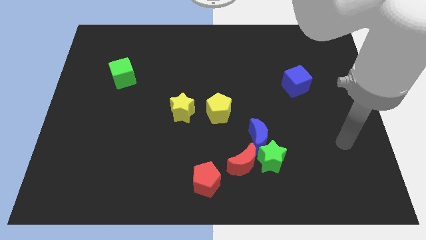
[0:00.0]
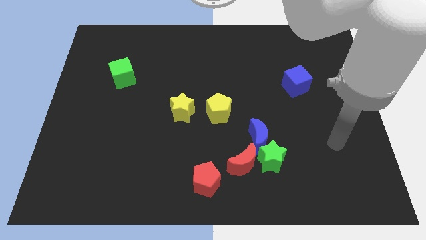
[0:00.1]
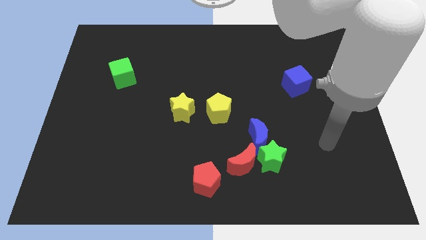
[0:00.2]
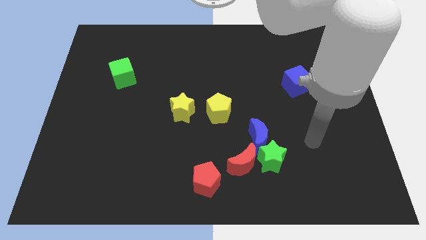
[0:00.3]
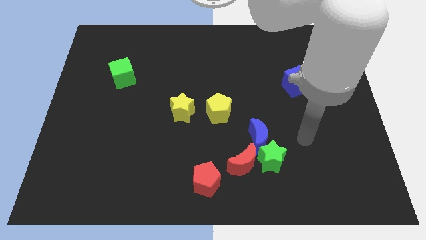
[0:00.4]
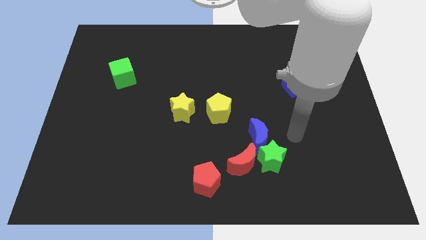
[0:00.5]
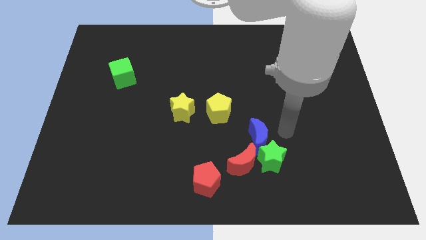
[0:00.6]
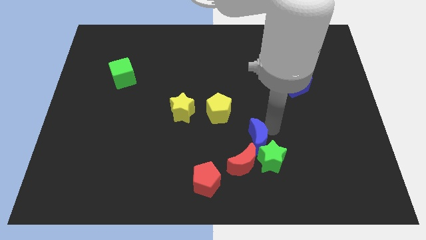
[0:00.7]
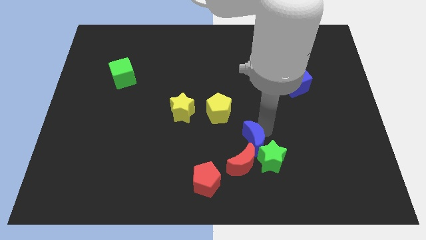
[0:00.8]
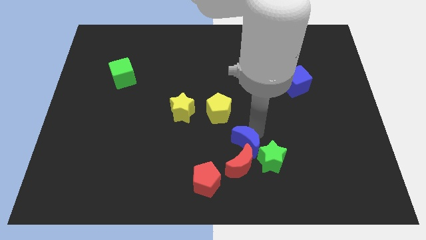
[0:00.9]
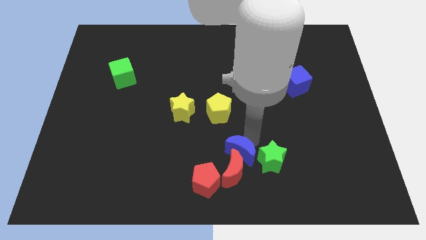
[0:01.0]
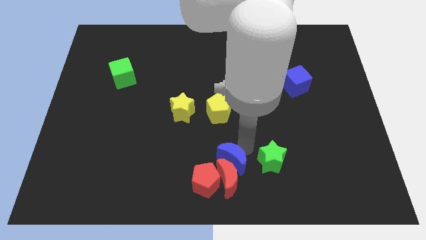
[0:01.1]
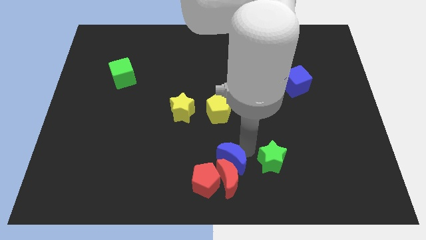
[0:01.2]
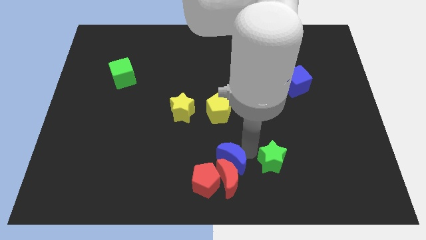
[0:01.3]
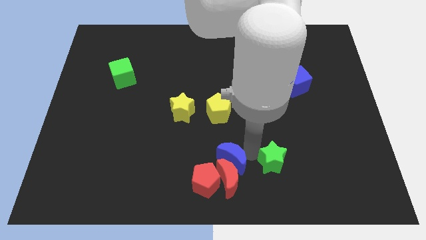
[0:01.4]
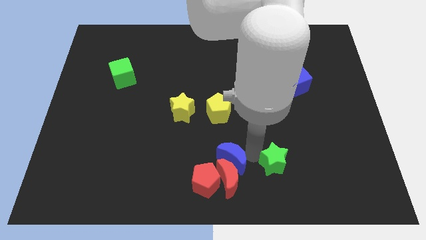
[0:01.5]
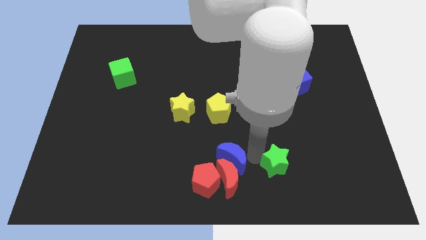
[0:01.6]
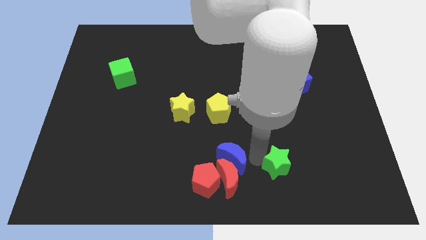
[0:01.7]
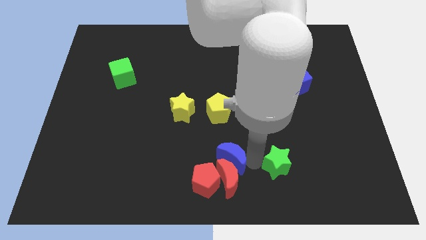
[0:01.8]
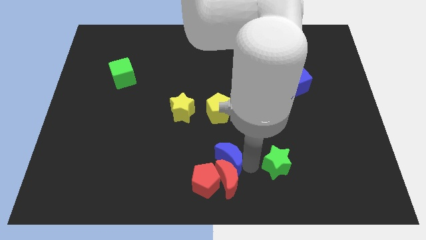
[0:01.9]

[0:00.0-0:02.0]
move the green star away from the blue moon and red moon

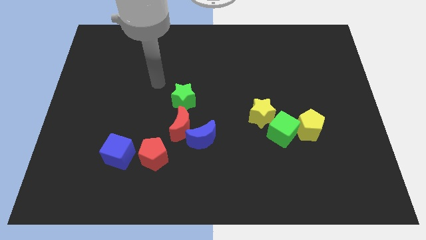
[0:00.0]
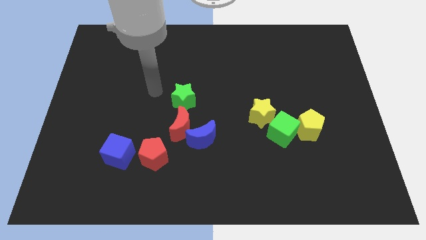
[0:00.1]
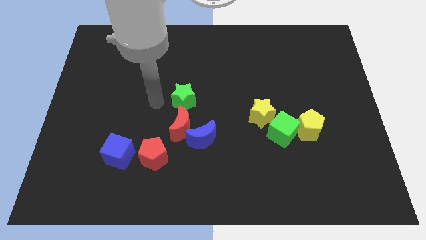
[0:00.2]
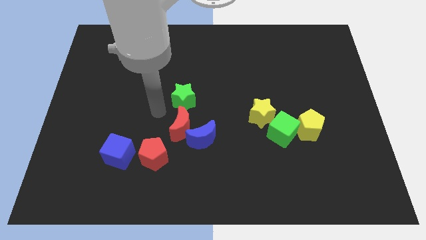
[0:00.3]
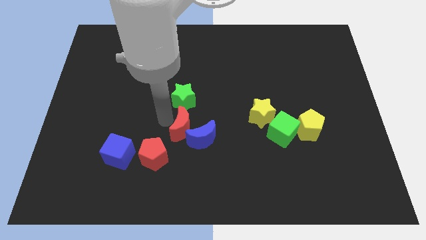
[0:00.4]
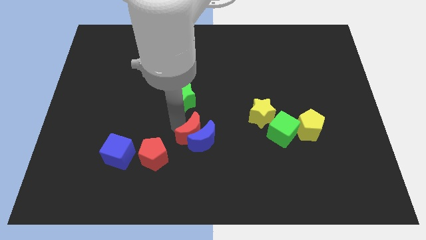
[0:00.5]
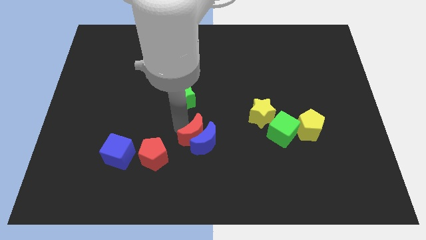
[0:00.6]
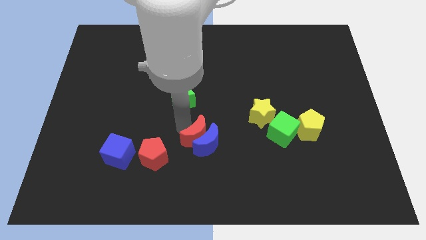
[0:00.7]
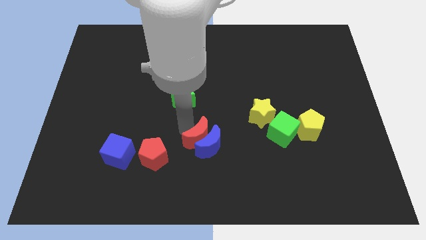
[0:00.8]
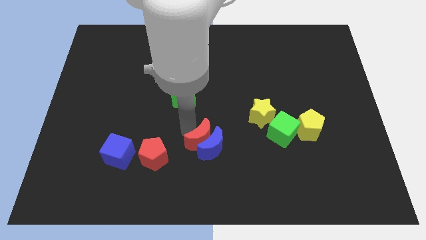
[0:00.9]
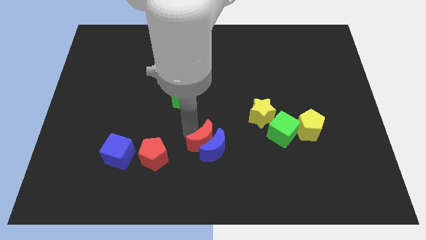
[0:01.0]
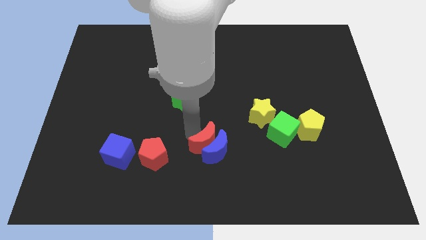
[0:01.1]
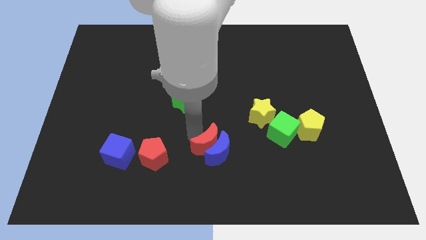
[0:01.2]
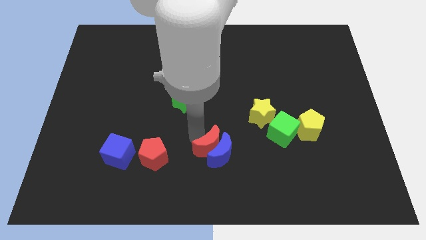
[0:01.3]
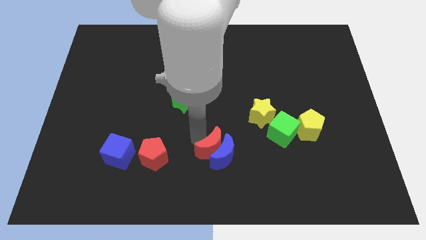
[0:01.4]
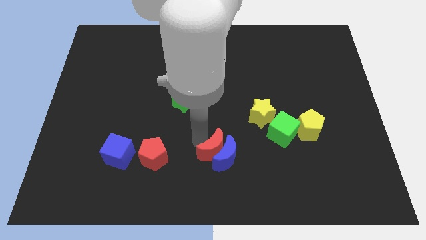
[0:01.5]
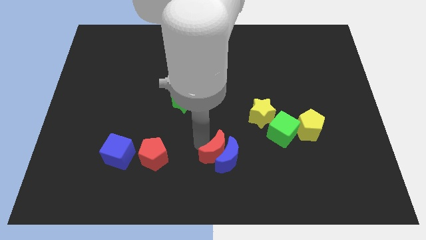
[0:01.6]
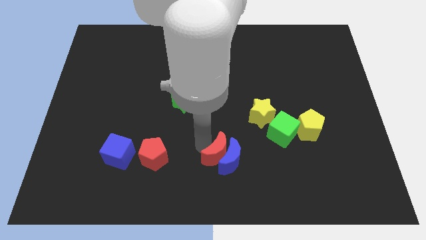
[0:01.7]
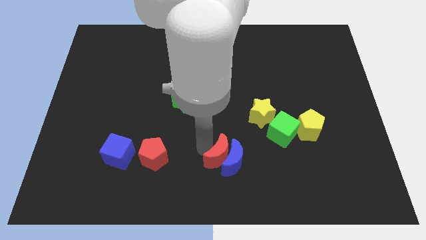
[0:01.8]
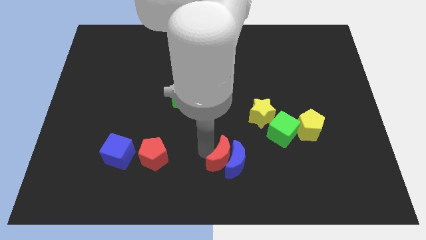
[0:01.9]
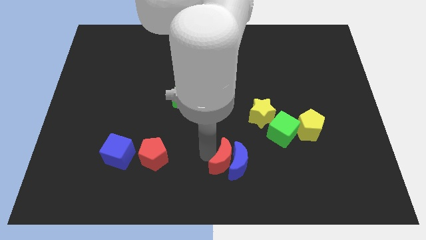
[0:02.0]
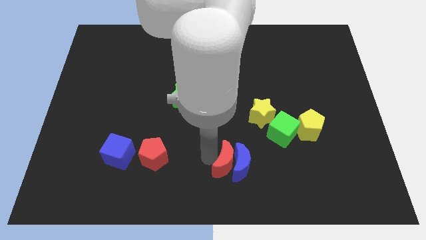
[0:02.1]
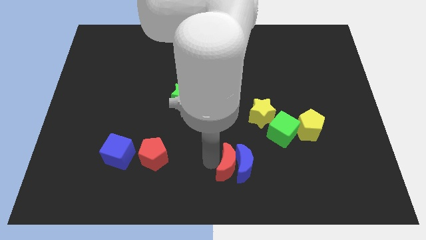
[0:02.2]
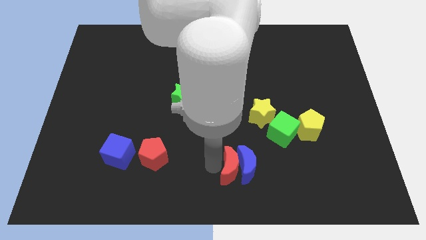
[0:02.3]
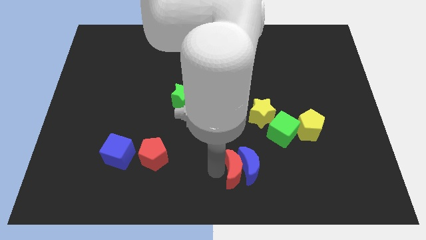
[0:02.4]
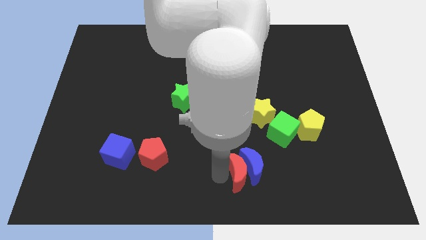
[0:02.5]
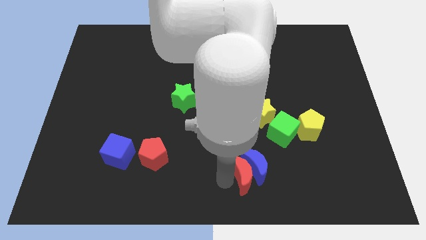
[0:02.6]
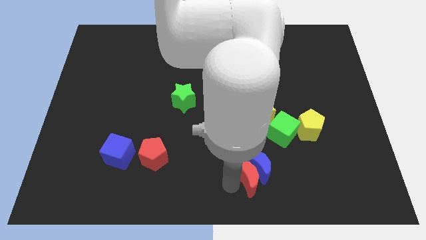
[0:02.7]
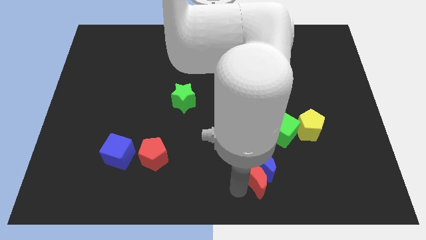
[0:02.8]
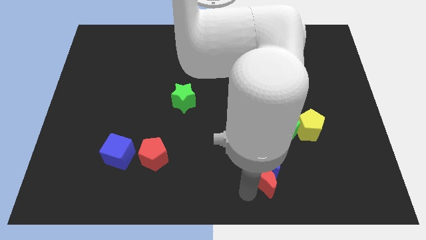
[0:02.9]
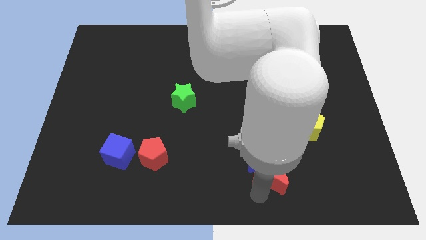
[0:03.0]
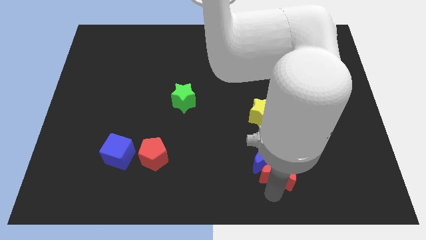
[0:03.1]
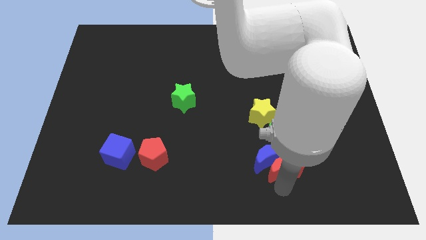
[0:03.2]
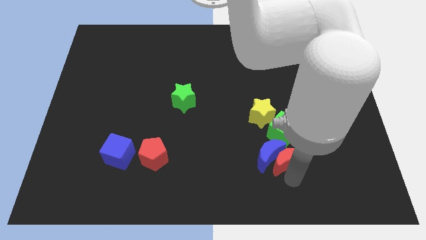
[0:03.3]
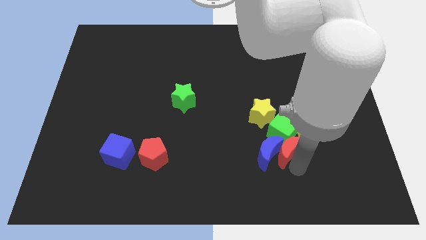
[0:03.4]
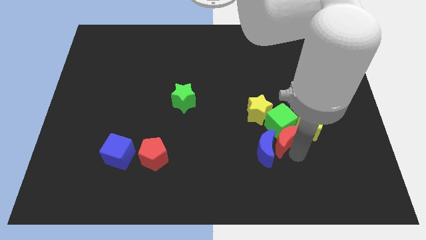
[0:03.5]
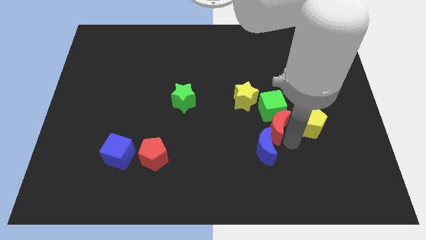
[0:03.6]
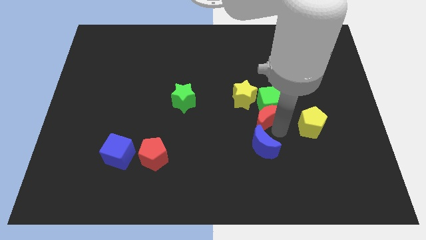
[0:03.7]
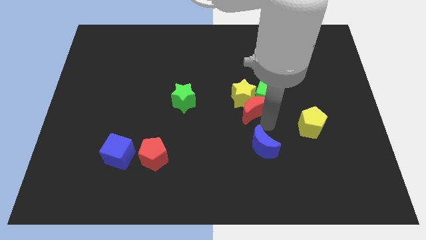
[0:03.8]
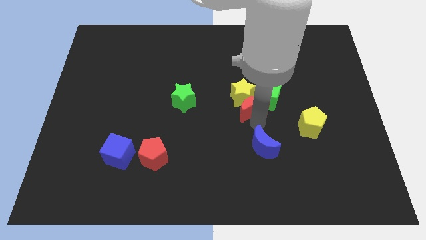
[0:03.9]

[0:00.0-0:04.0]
move the blue moon away from the red moon

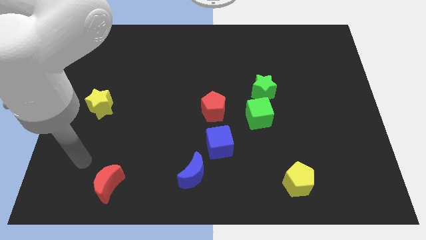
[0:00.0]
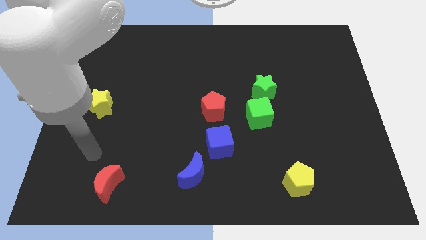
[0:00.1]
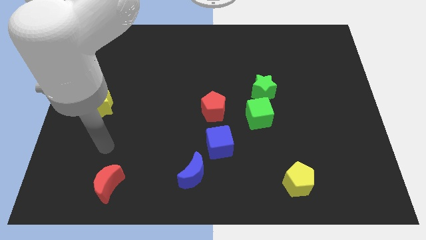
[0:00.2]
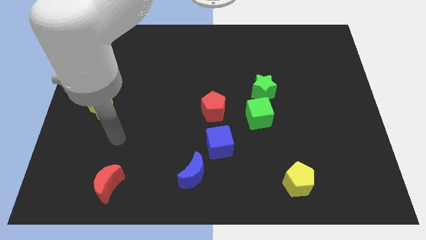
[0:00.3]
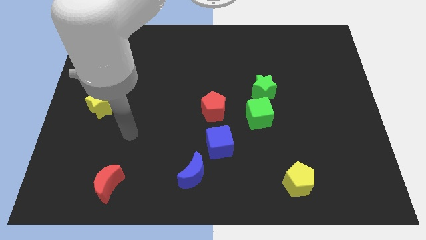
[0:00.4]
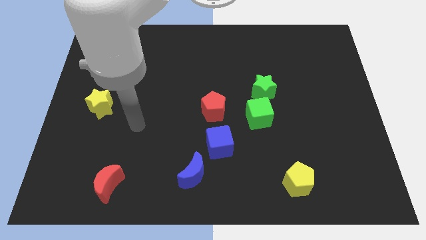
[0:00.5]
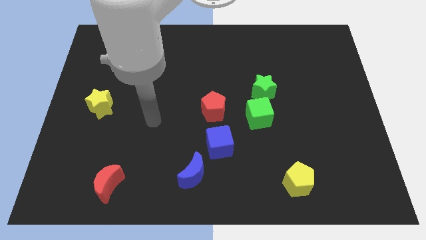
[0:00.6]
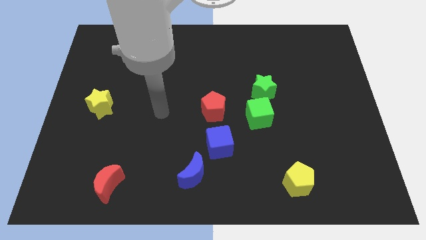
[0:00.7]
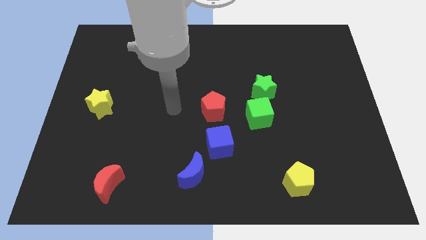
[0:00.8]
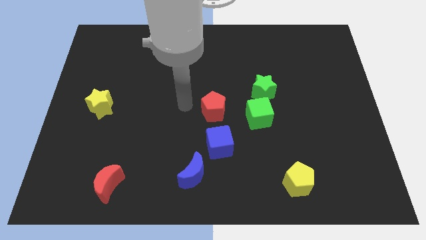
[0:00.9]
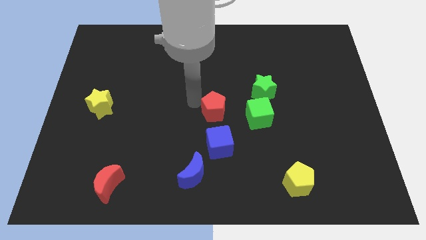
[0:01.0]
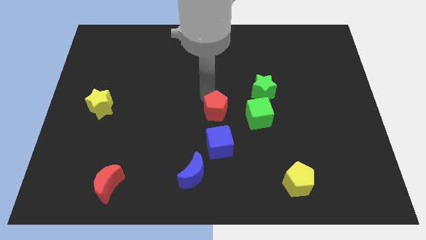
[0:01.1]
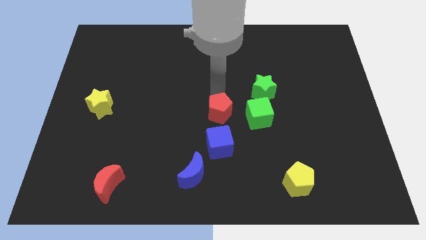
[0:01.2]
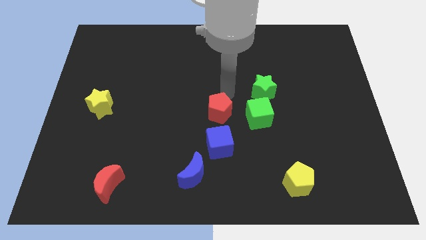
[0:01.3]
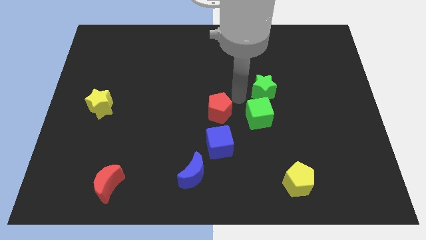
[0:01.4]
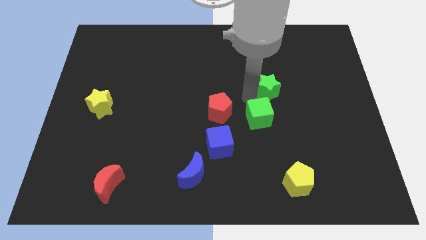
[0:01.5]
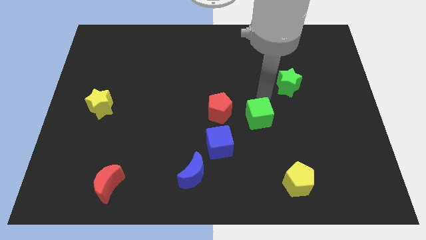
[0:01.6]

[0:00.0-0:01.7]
pull the green cube apart from the green star

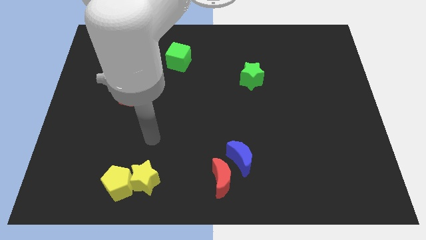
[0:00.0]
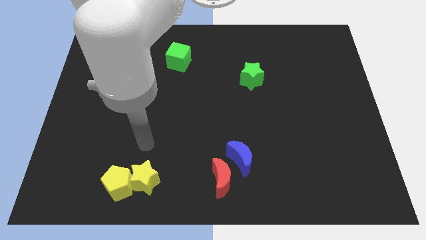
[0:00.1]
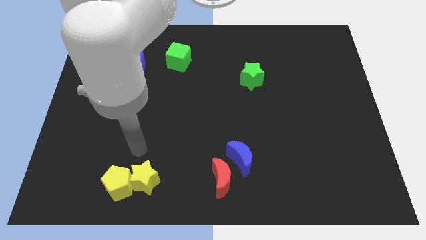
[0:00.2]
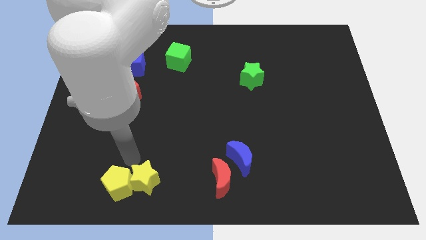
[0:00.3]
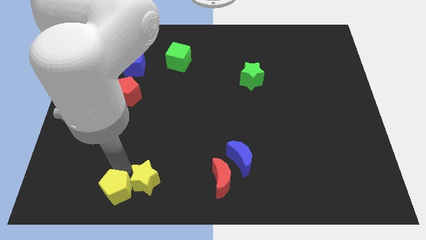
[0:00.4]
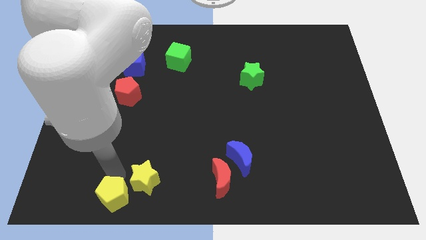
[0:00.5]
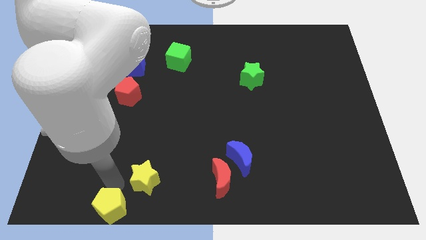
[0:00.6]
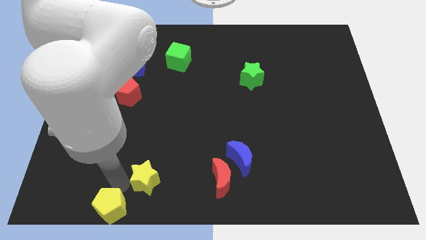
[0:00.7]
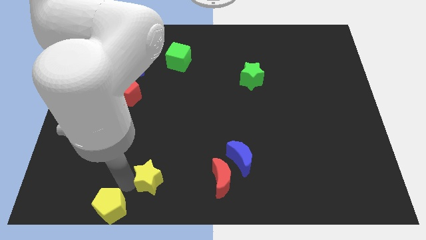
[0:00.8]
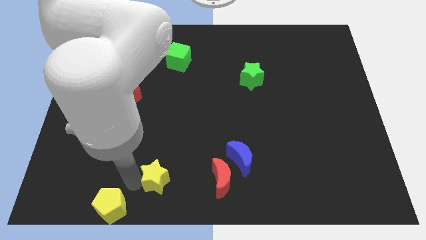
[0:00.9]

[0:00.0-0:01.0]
pull the yellow star apart from the yellow pentagon

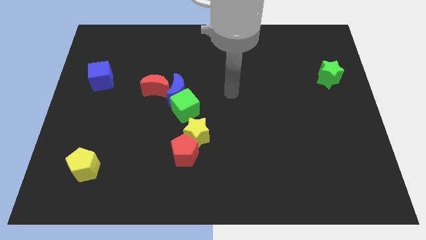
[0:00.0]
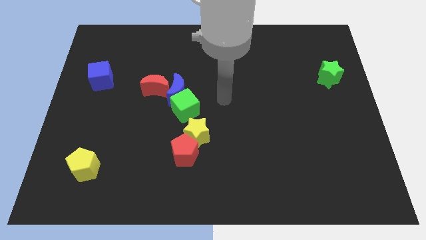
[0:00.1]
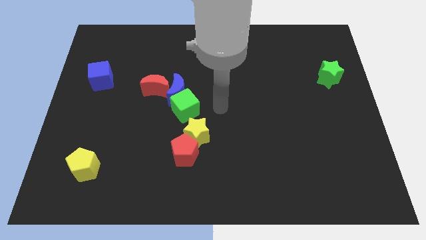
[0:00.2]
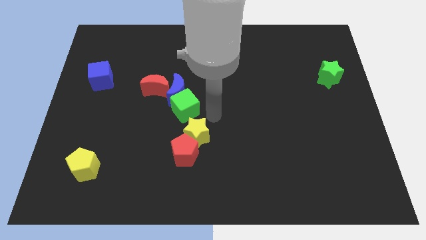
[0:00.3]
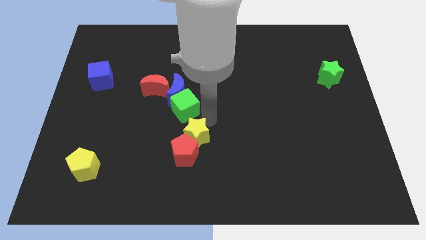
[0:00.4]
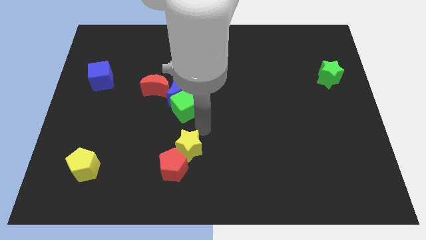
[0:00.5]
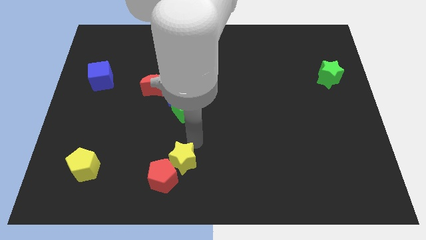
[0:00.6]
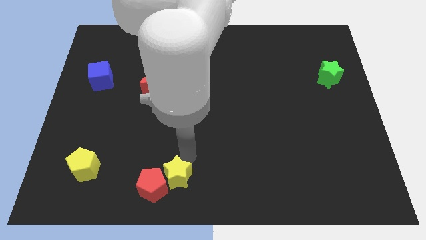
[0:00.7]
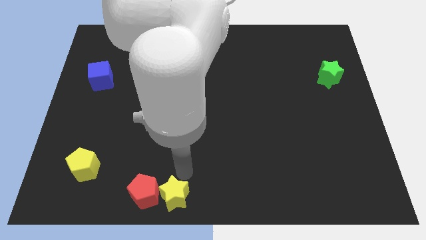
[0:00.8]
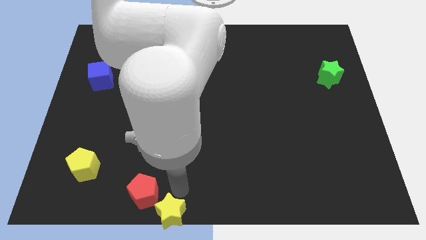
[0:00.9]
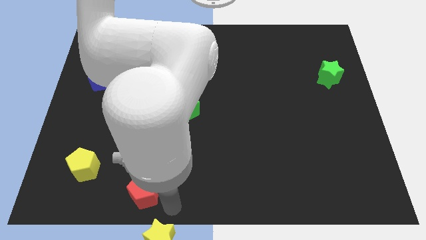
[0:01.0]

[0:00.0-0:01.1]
pull the red pentagon apart from the yellow star
